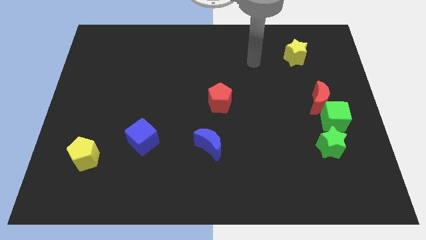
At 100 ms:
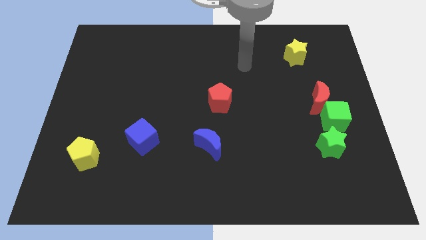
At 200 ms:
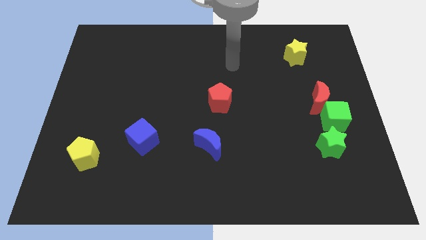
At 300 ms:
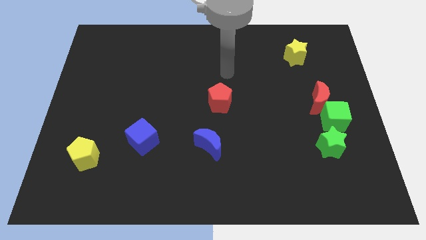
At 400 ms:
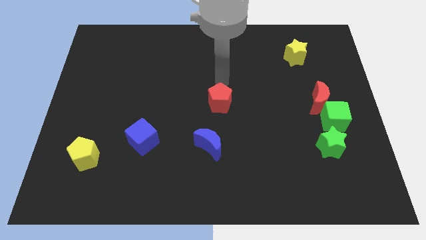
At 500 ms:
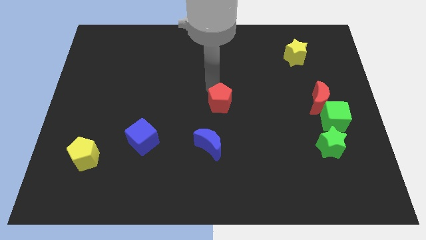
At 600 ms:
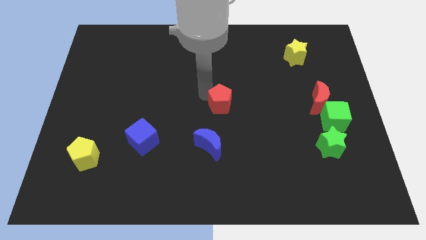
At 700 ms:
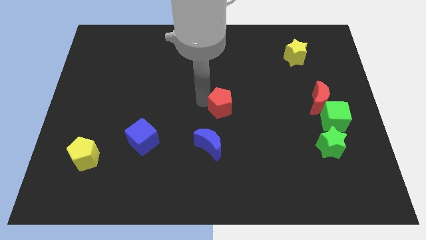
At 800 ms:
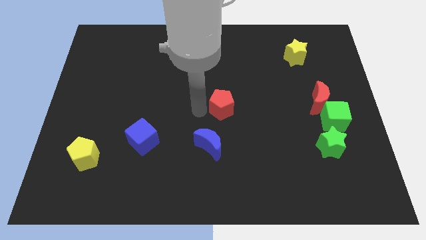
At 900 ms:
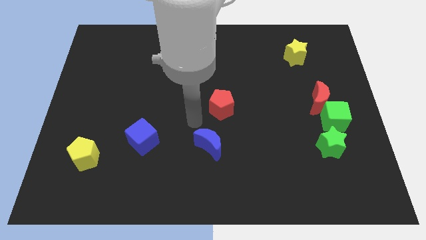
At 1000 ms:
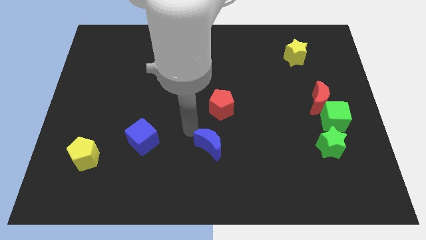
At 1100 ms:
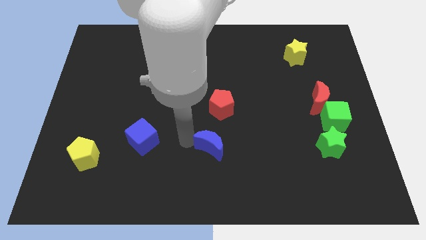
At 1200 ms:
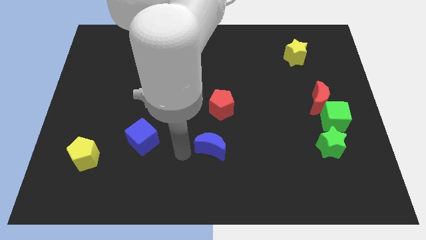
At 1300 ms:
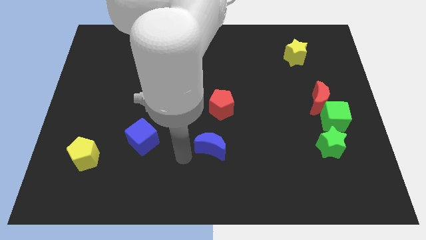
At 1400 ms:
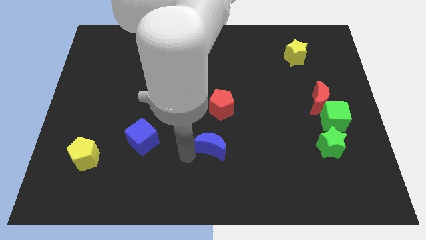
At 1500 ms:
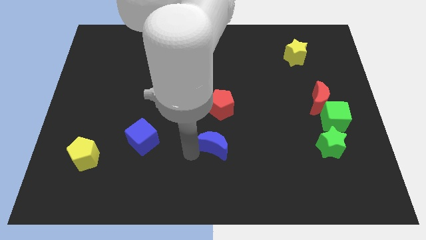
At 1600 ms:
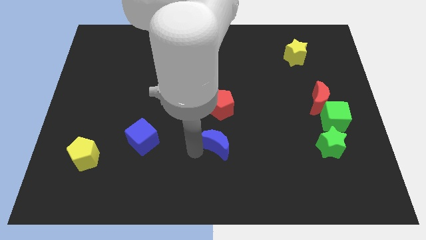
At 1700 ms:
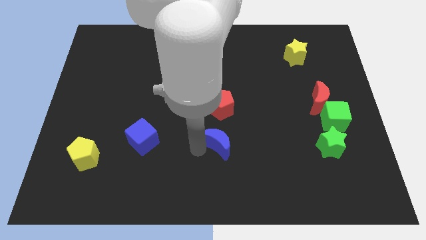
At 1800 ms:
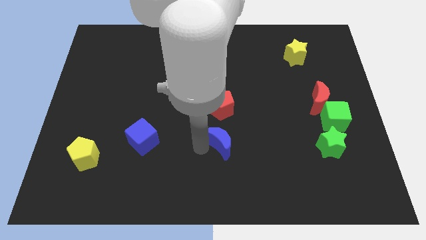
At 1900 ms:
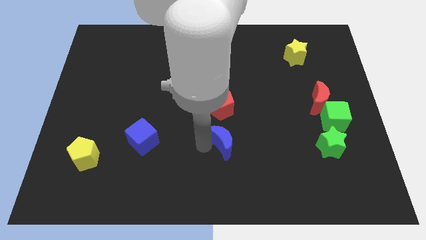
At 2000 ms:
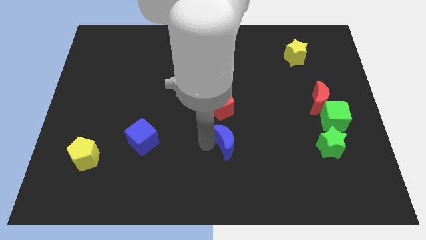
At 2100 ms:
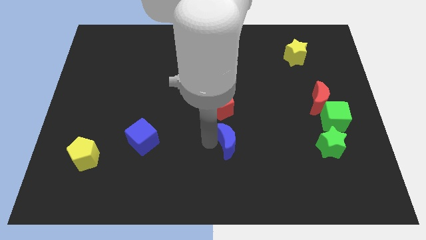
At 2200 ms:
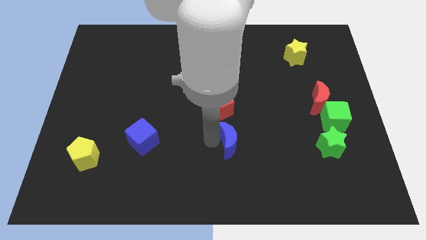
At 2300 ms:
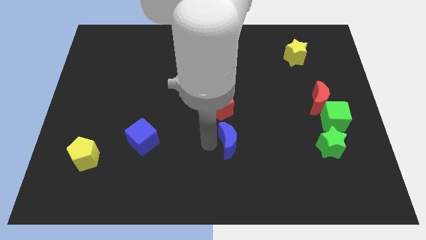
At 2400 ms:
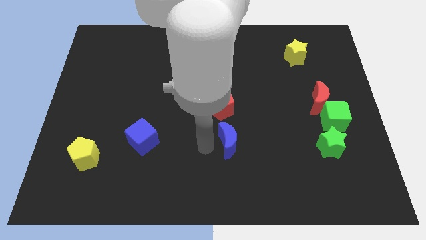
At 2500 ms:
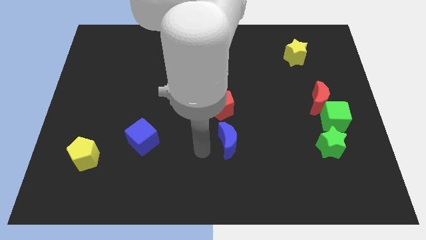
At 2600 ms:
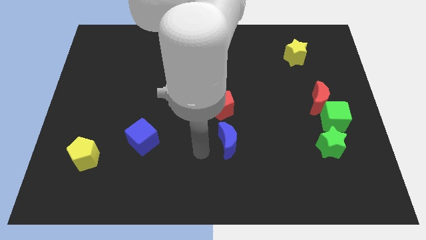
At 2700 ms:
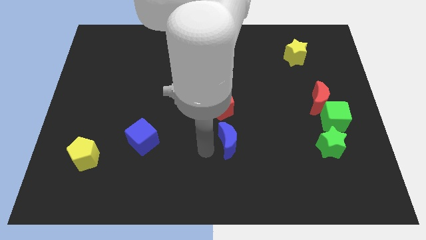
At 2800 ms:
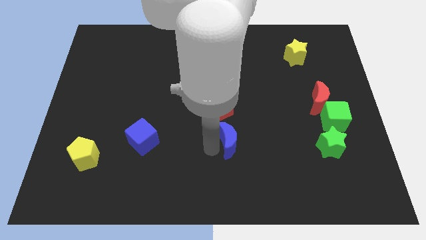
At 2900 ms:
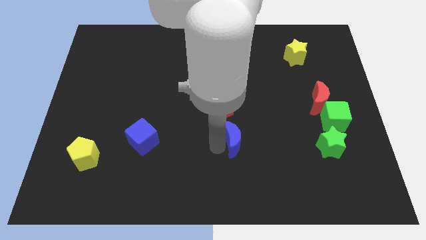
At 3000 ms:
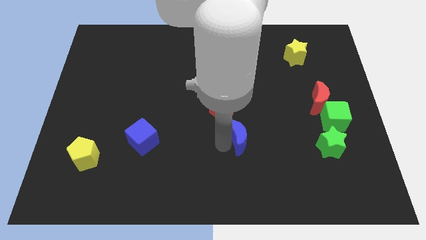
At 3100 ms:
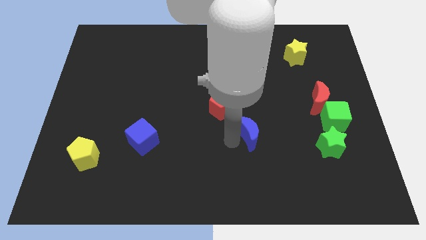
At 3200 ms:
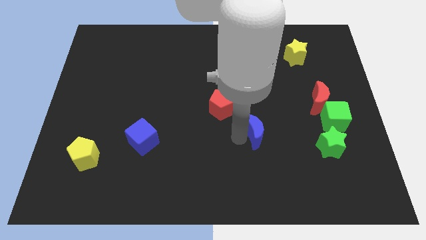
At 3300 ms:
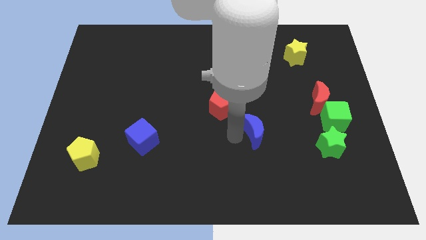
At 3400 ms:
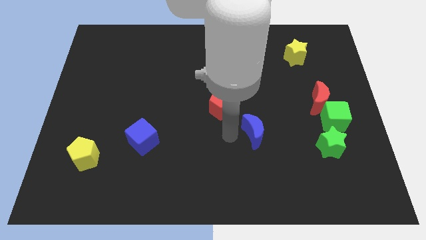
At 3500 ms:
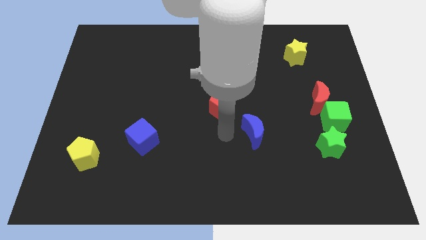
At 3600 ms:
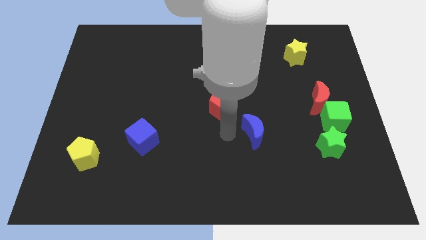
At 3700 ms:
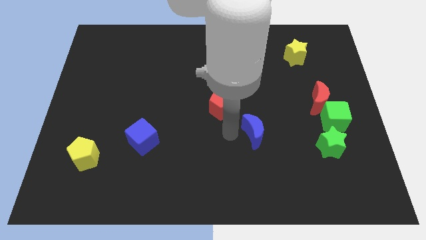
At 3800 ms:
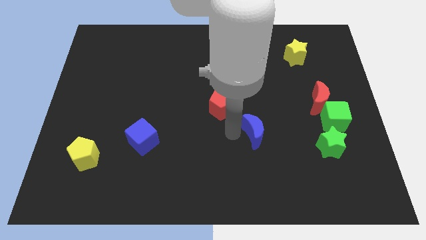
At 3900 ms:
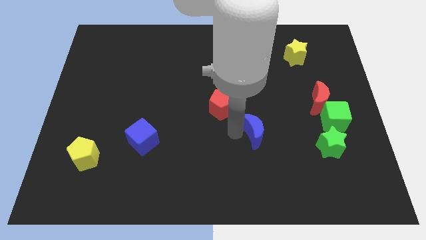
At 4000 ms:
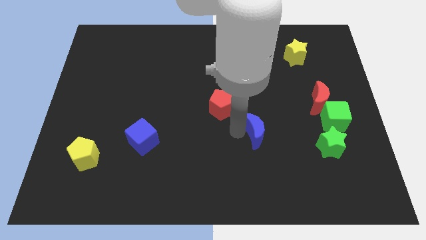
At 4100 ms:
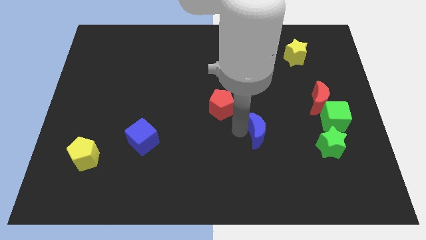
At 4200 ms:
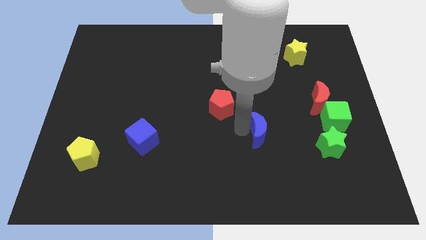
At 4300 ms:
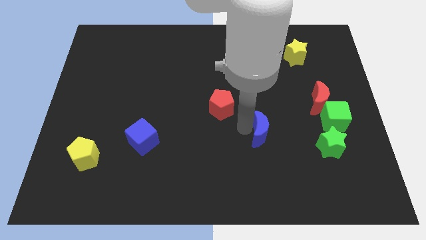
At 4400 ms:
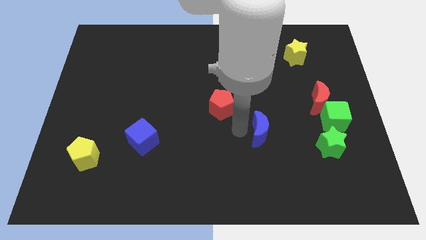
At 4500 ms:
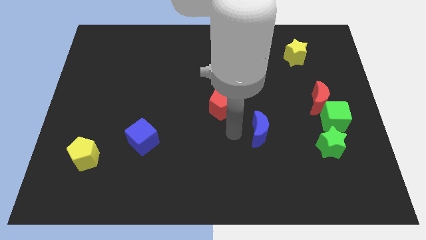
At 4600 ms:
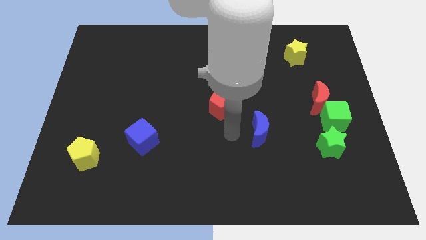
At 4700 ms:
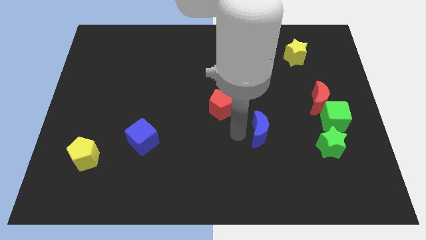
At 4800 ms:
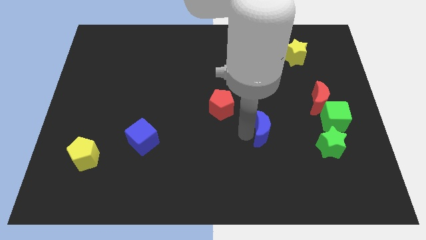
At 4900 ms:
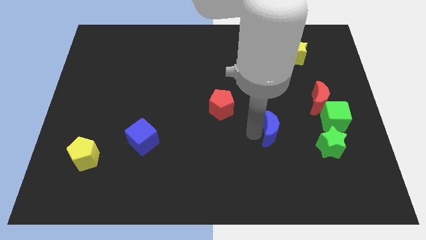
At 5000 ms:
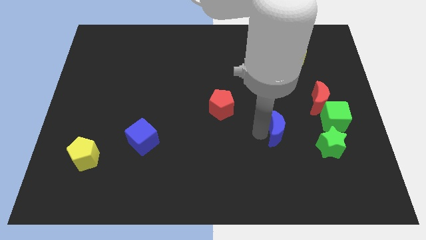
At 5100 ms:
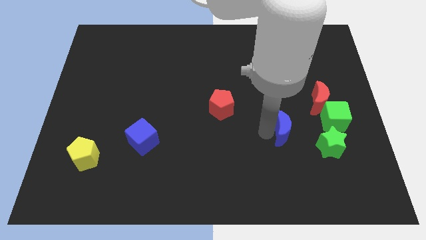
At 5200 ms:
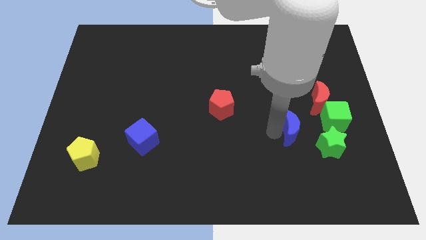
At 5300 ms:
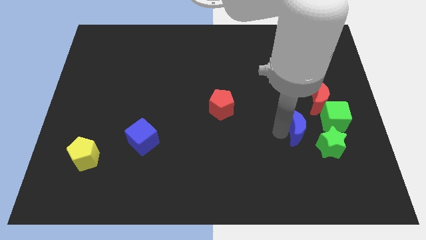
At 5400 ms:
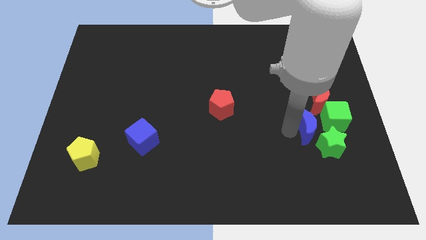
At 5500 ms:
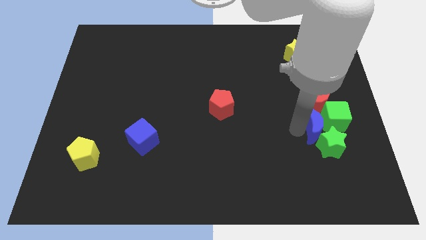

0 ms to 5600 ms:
put the blue moon close to the green cube
